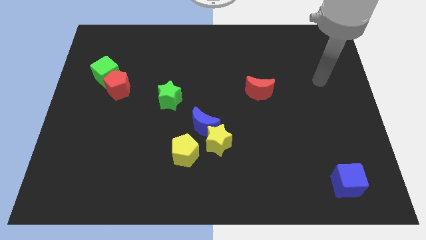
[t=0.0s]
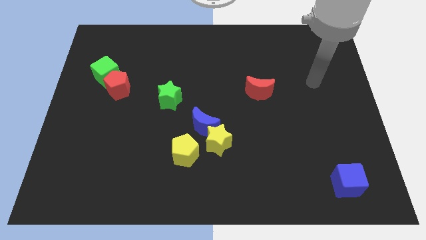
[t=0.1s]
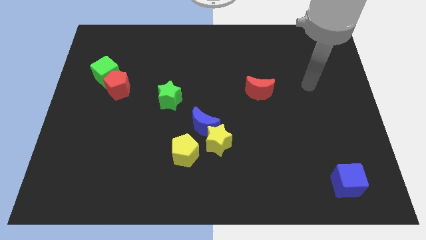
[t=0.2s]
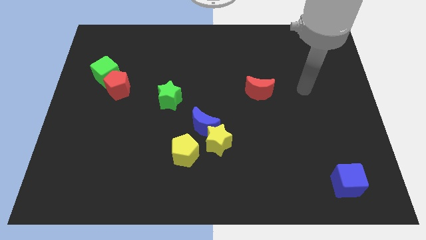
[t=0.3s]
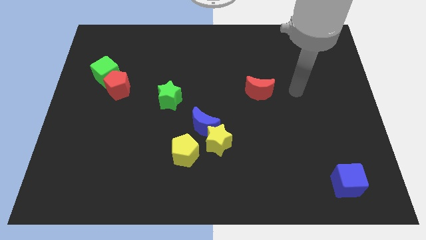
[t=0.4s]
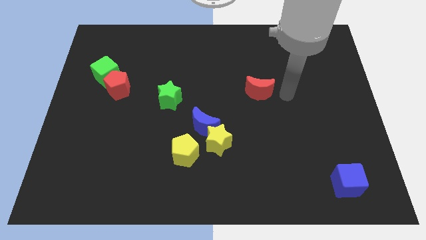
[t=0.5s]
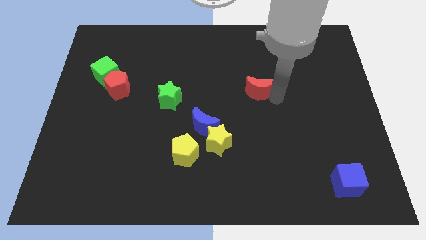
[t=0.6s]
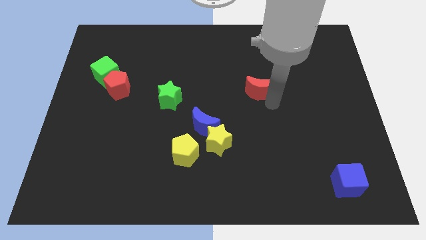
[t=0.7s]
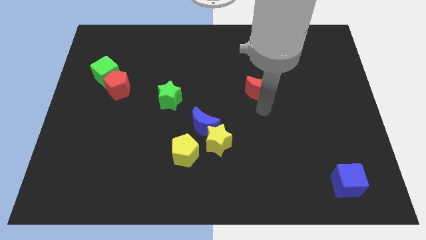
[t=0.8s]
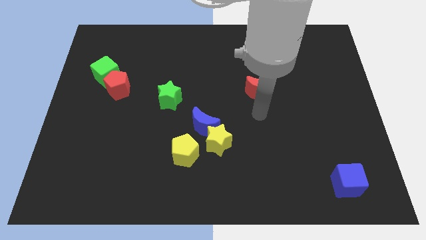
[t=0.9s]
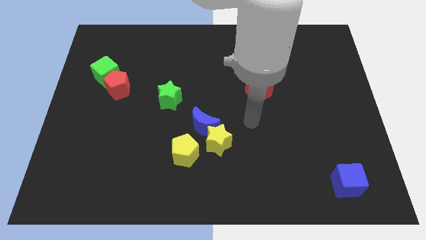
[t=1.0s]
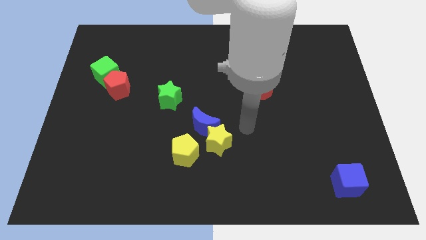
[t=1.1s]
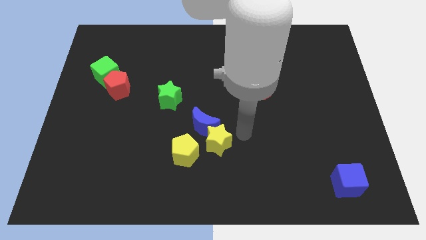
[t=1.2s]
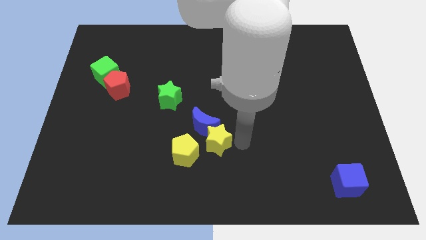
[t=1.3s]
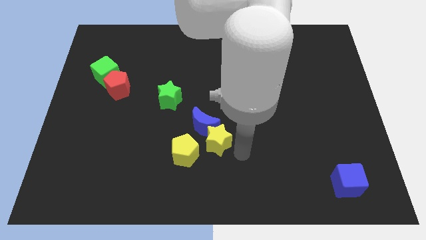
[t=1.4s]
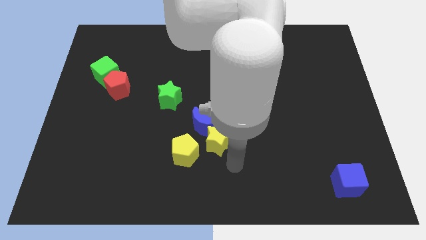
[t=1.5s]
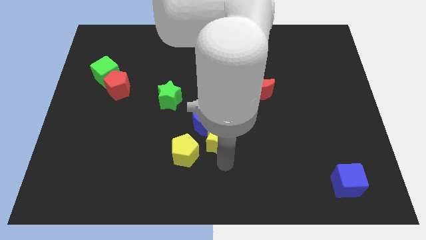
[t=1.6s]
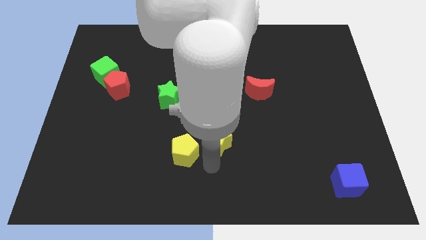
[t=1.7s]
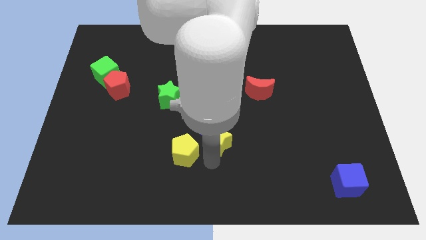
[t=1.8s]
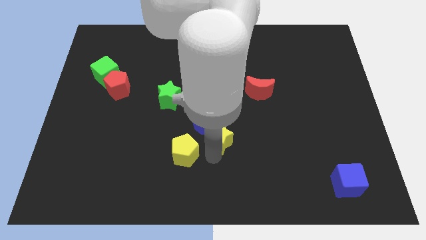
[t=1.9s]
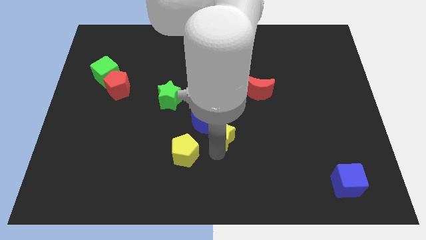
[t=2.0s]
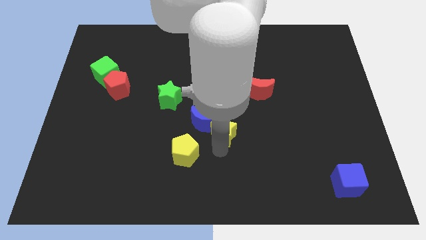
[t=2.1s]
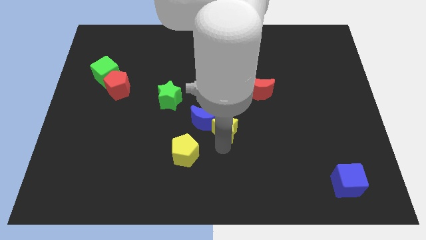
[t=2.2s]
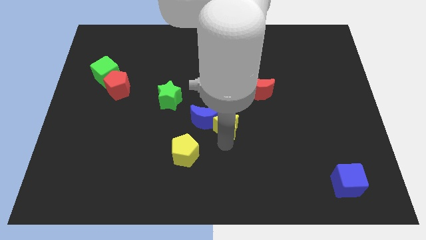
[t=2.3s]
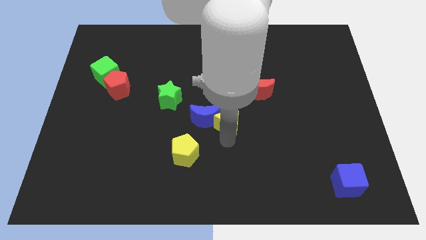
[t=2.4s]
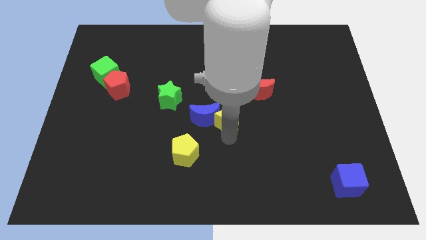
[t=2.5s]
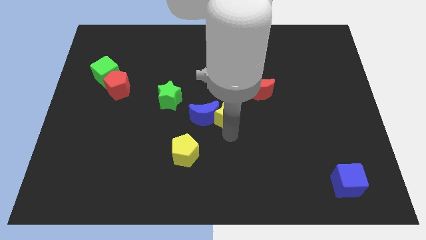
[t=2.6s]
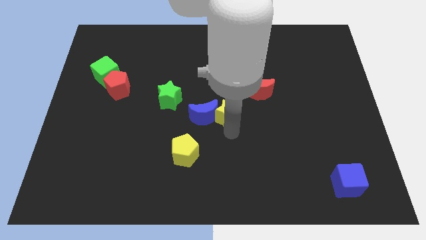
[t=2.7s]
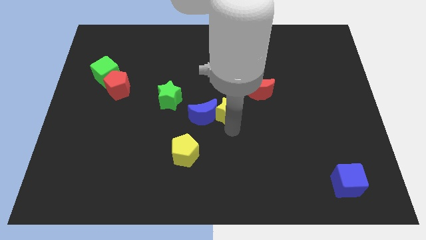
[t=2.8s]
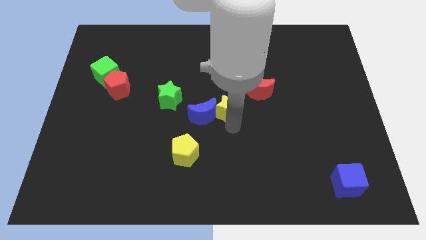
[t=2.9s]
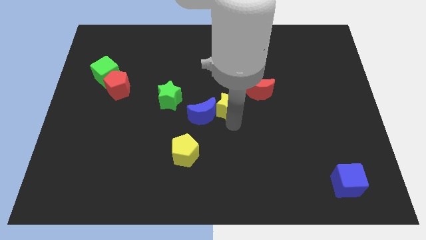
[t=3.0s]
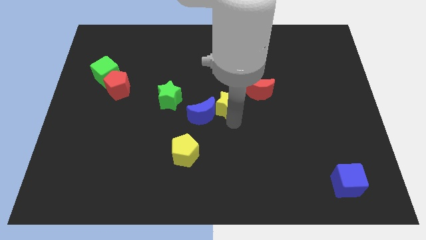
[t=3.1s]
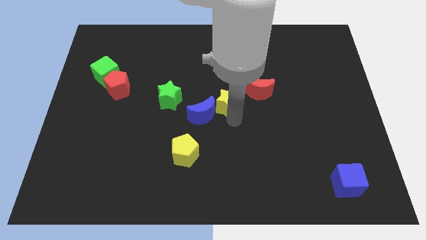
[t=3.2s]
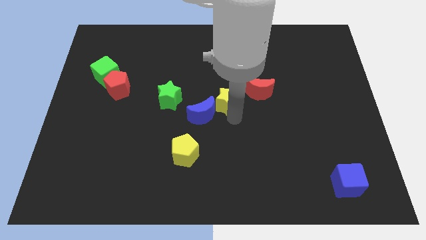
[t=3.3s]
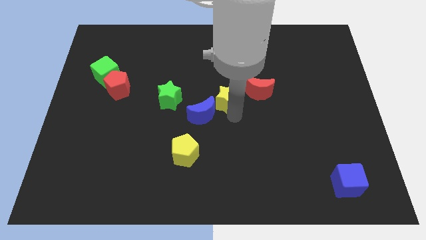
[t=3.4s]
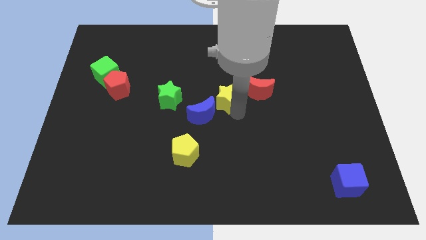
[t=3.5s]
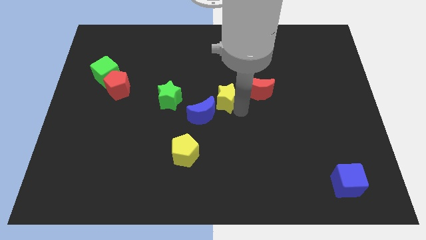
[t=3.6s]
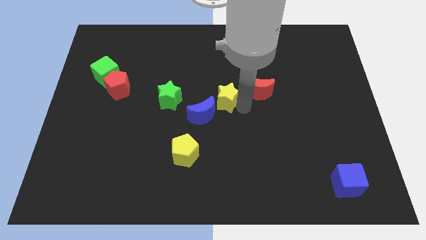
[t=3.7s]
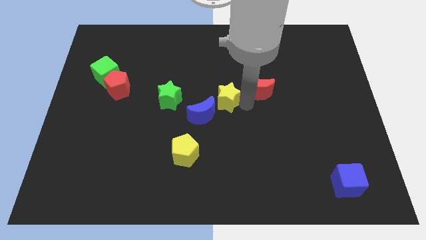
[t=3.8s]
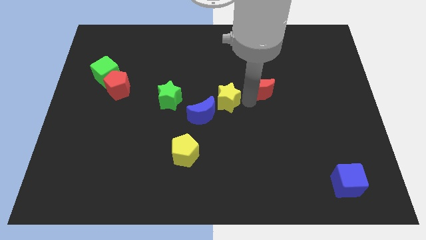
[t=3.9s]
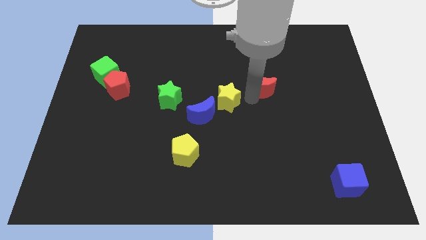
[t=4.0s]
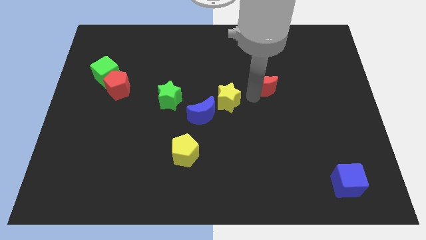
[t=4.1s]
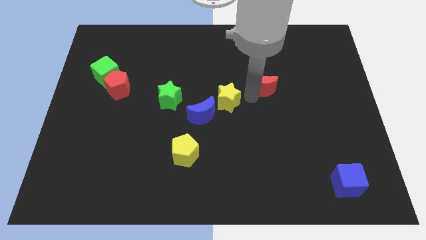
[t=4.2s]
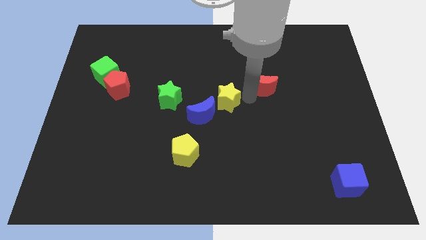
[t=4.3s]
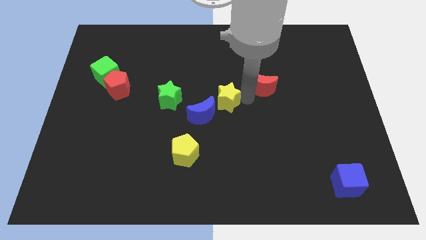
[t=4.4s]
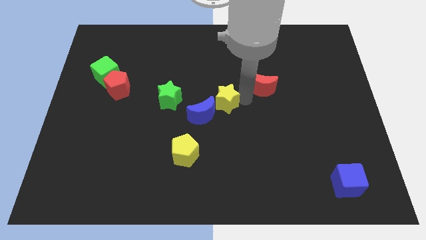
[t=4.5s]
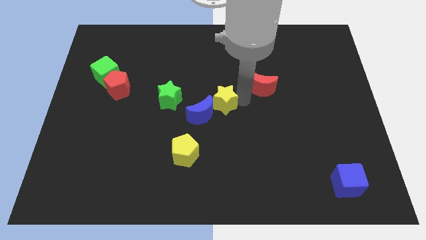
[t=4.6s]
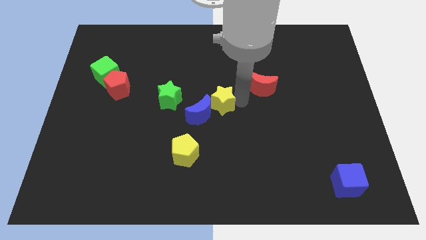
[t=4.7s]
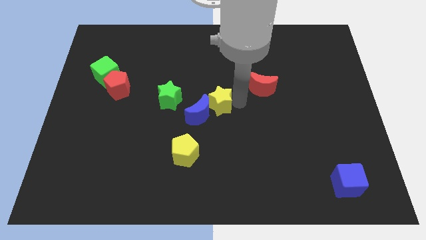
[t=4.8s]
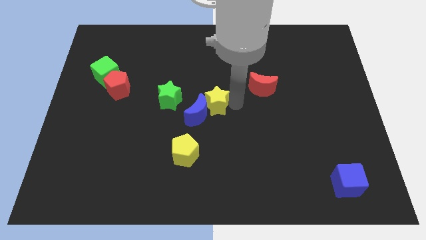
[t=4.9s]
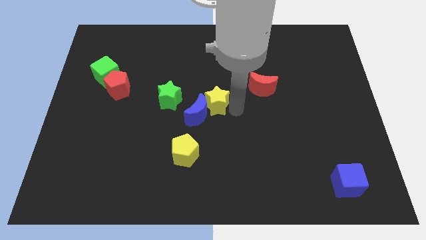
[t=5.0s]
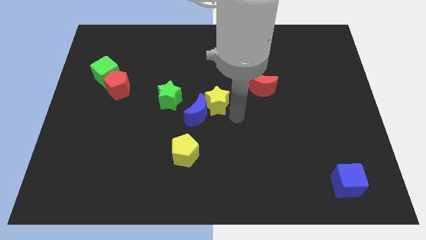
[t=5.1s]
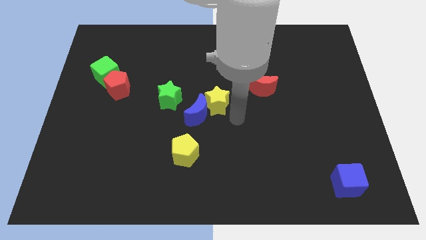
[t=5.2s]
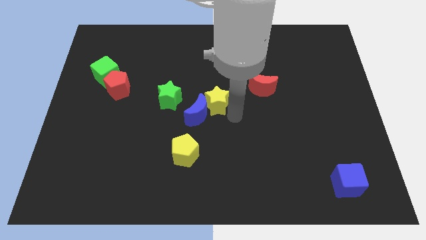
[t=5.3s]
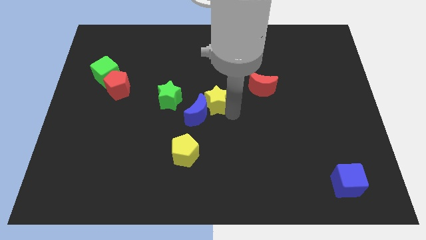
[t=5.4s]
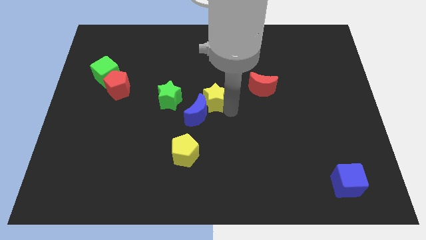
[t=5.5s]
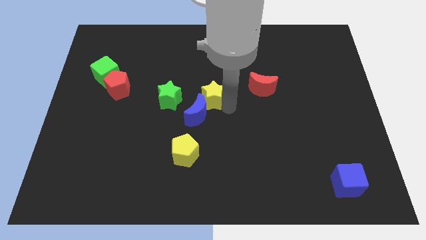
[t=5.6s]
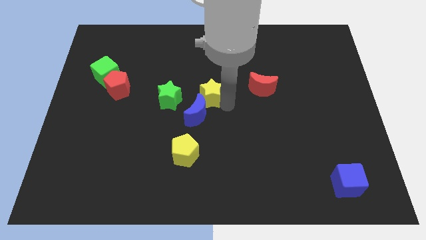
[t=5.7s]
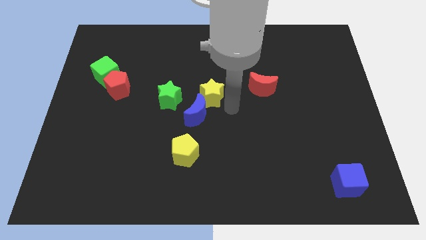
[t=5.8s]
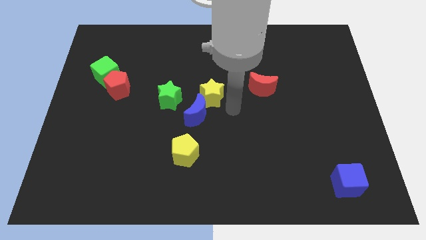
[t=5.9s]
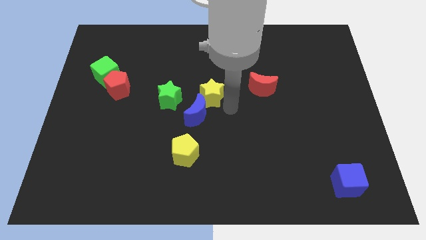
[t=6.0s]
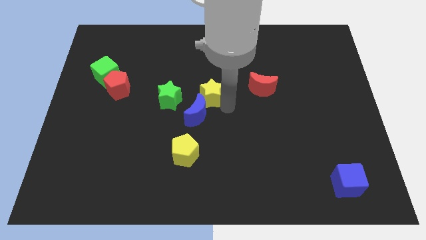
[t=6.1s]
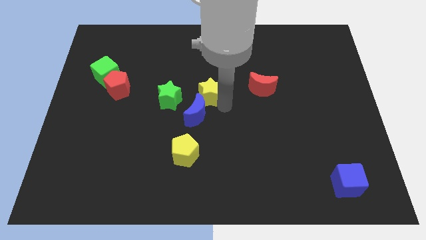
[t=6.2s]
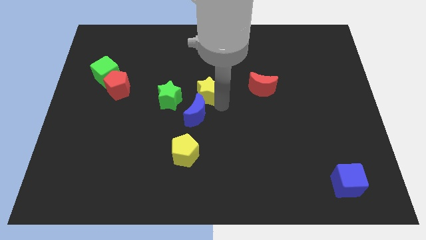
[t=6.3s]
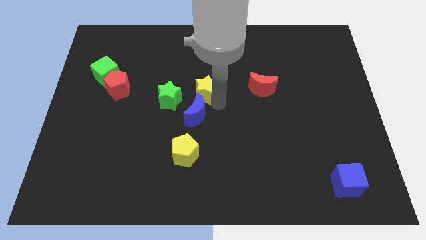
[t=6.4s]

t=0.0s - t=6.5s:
push the yellow star diagonally up and to the right of the green star

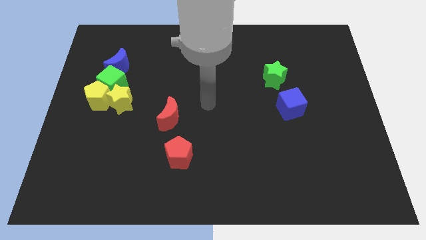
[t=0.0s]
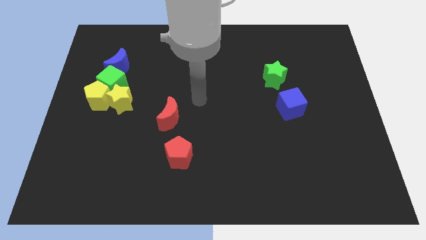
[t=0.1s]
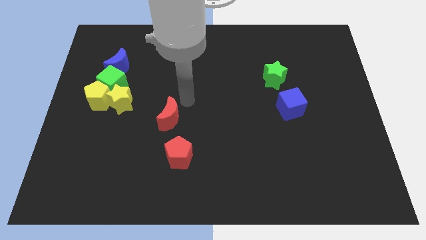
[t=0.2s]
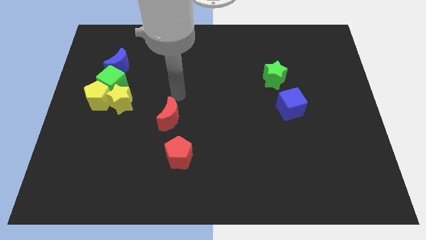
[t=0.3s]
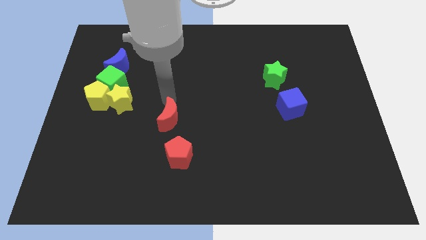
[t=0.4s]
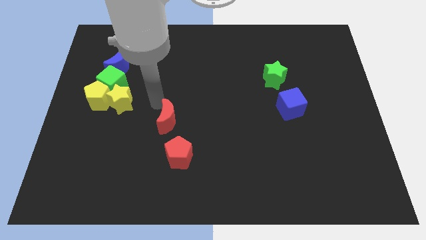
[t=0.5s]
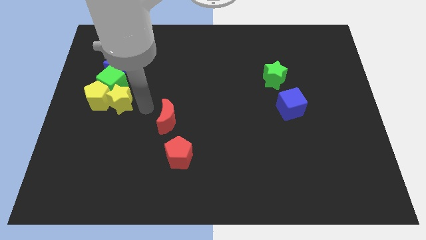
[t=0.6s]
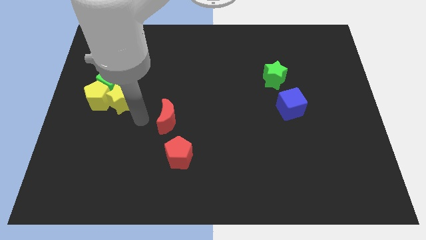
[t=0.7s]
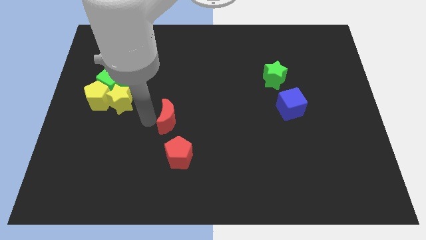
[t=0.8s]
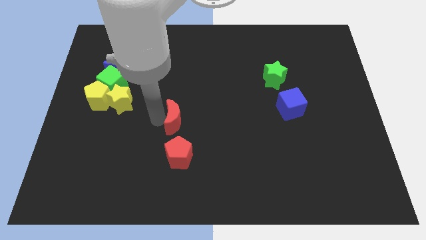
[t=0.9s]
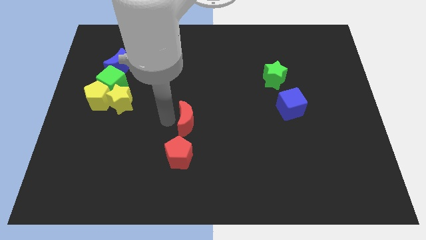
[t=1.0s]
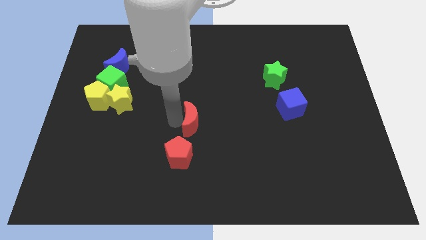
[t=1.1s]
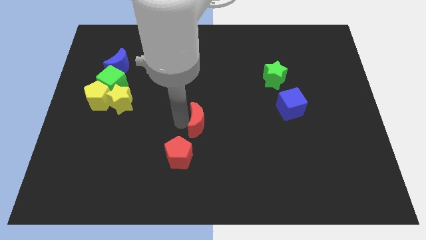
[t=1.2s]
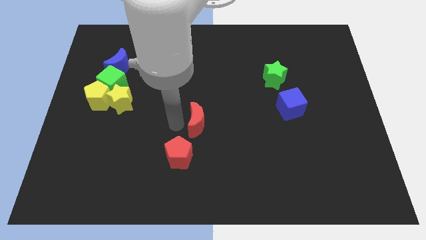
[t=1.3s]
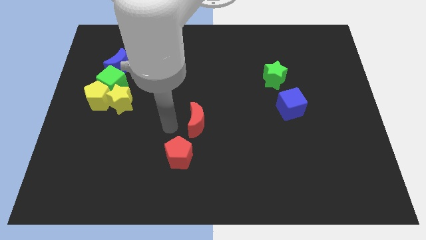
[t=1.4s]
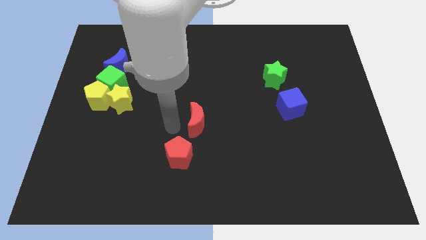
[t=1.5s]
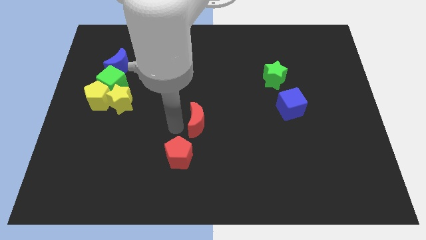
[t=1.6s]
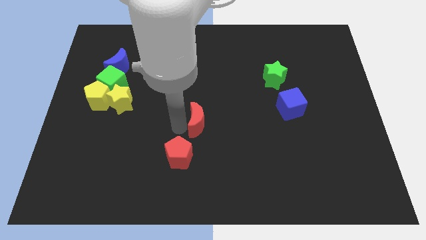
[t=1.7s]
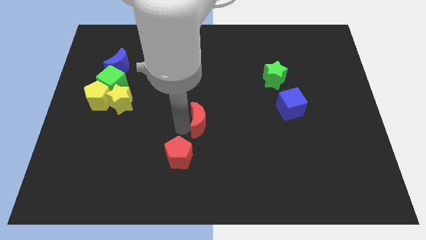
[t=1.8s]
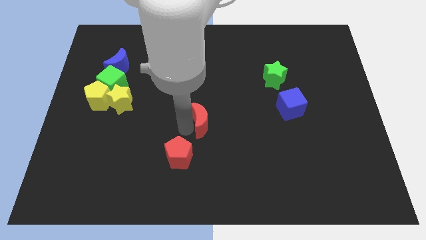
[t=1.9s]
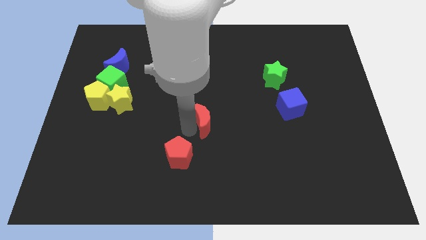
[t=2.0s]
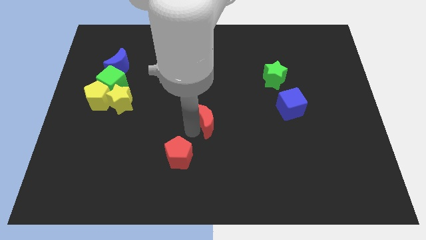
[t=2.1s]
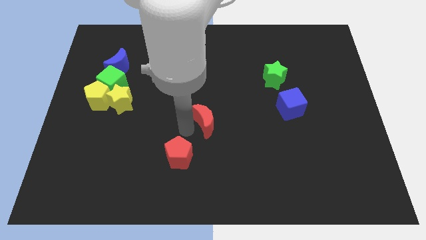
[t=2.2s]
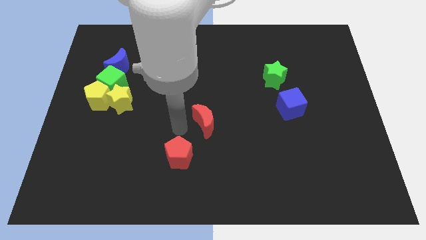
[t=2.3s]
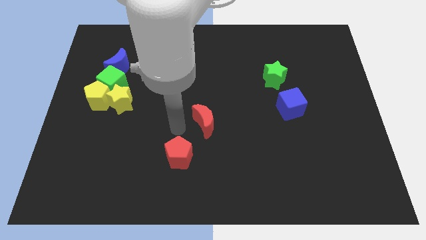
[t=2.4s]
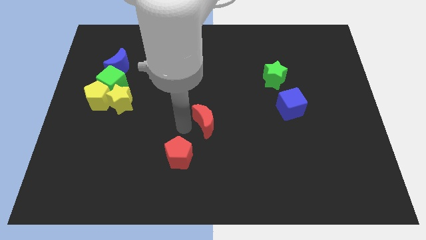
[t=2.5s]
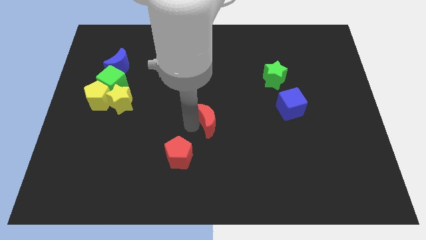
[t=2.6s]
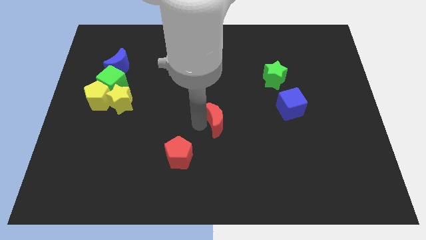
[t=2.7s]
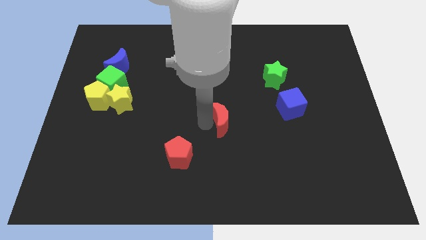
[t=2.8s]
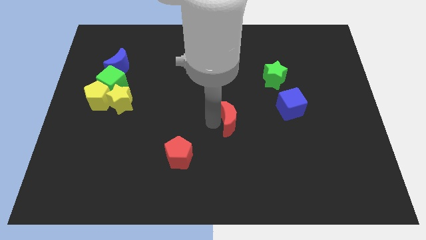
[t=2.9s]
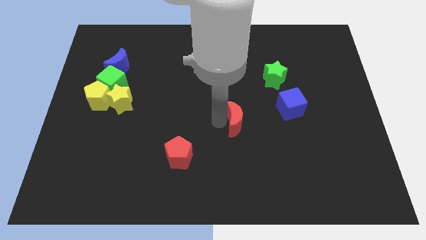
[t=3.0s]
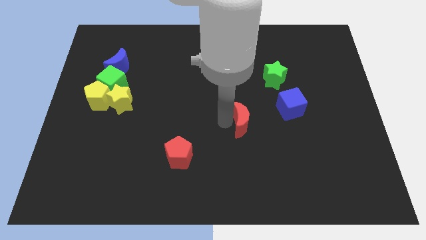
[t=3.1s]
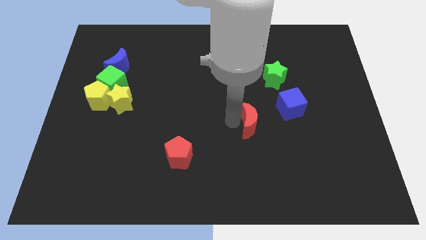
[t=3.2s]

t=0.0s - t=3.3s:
put the red moon to the bottom left of the blue cube
